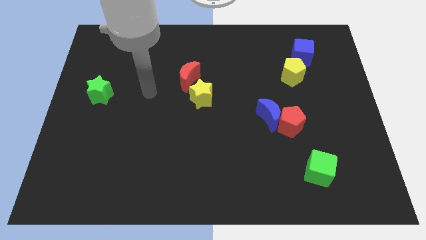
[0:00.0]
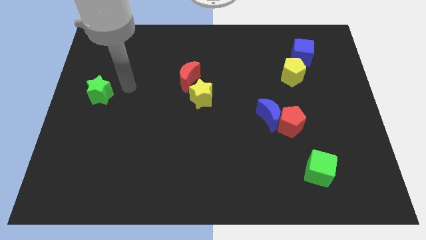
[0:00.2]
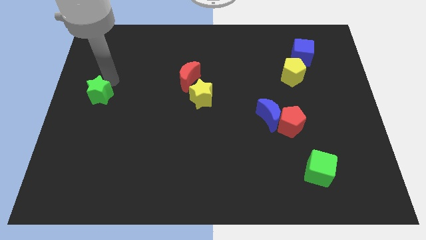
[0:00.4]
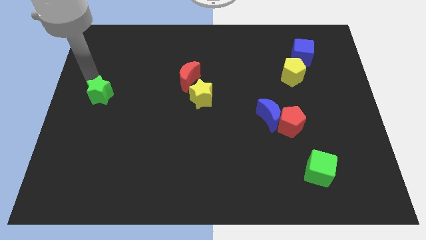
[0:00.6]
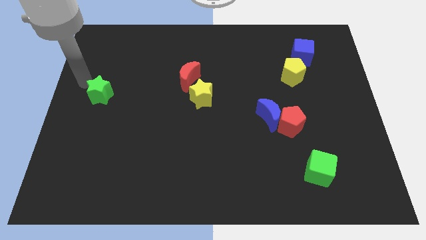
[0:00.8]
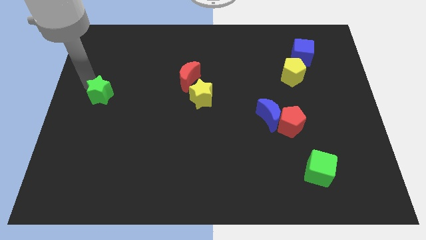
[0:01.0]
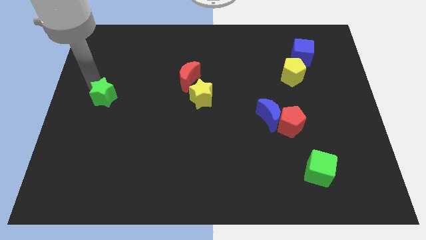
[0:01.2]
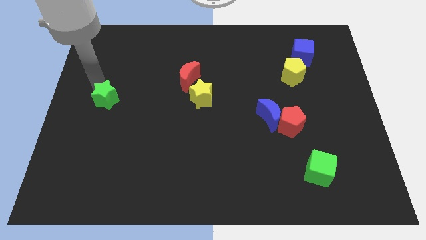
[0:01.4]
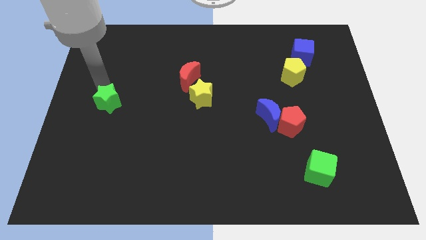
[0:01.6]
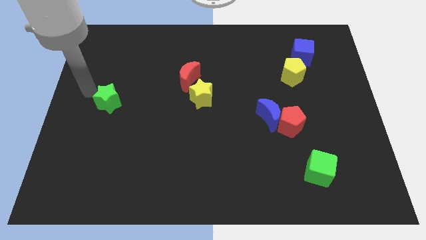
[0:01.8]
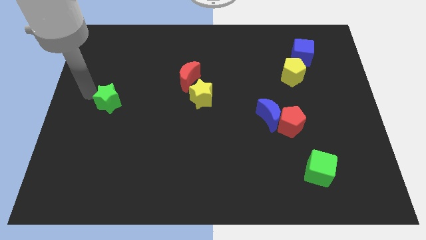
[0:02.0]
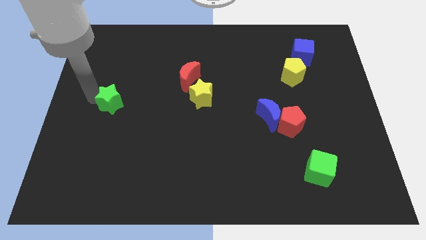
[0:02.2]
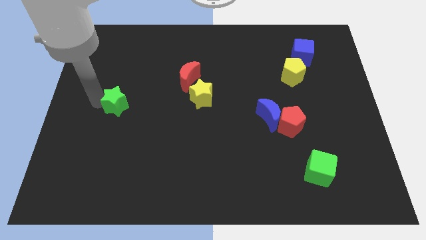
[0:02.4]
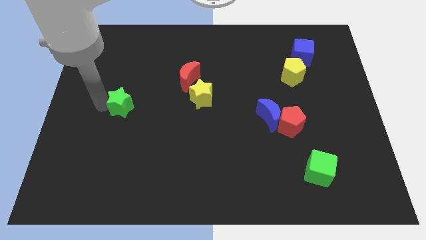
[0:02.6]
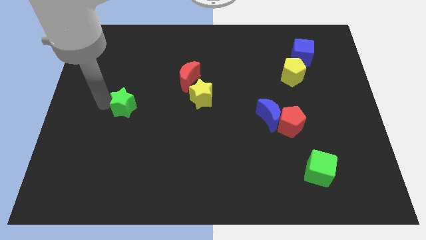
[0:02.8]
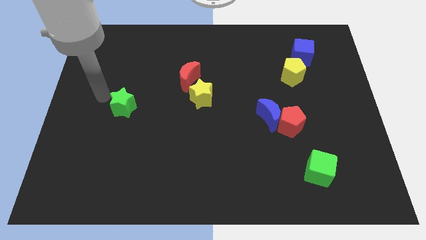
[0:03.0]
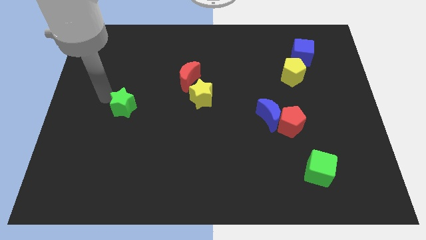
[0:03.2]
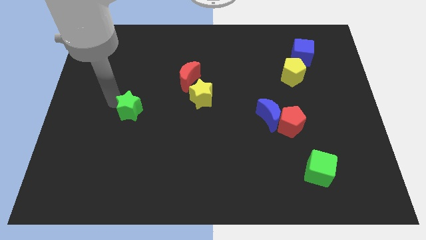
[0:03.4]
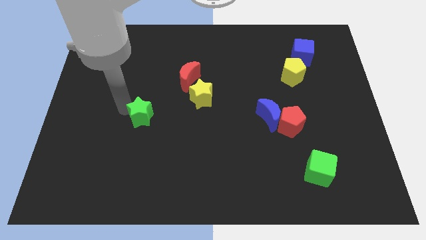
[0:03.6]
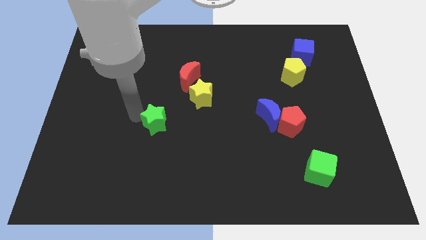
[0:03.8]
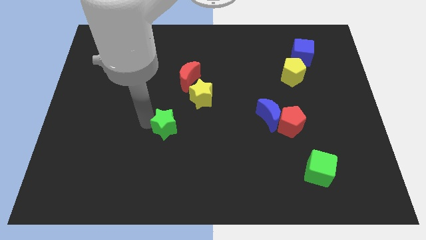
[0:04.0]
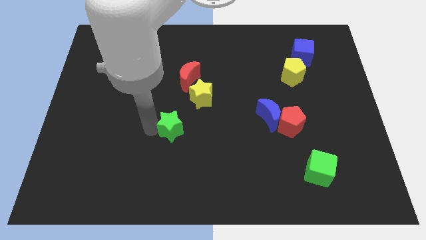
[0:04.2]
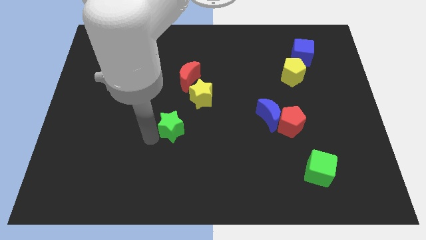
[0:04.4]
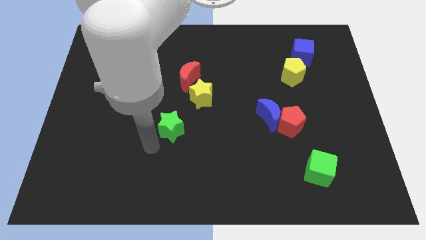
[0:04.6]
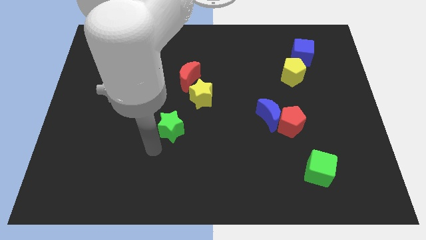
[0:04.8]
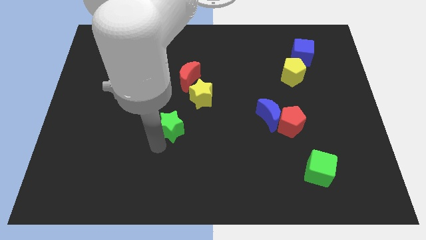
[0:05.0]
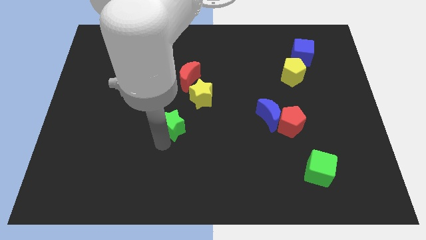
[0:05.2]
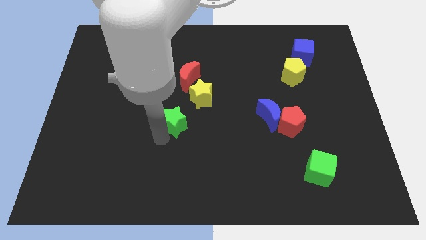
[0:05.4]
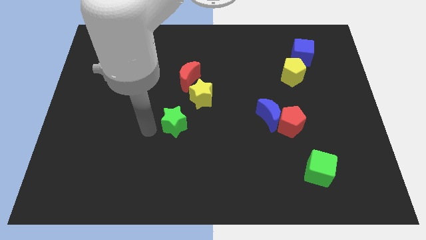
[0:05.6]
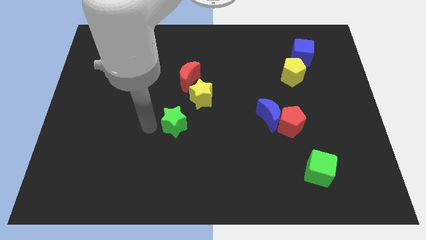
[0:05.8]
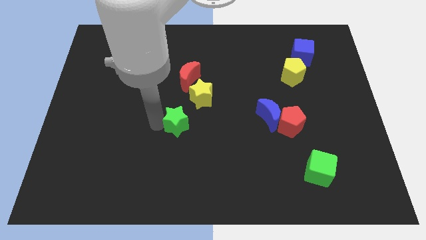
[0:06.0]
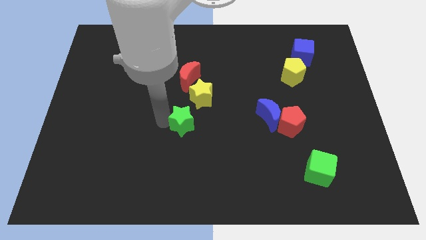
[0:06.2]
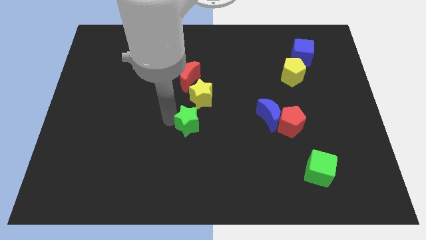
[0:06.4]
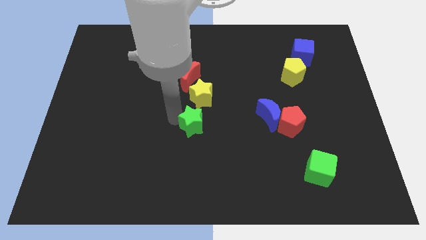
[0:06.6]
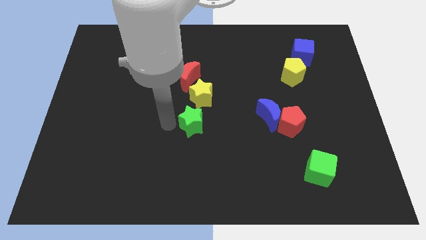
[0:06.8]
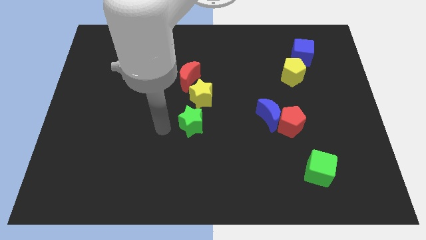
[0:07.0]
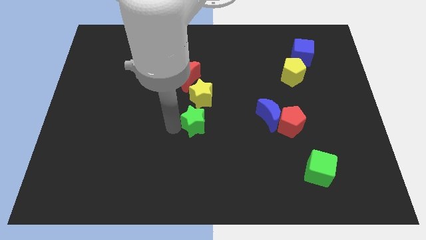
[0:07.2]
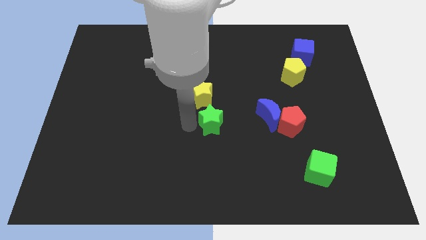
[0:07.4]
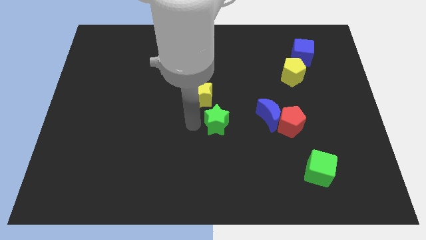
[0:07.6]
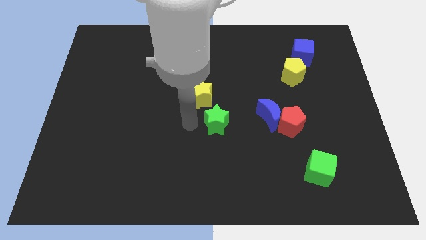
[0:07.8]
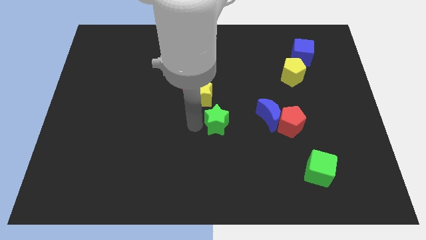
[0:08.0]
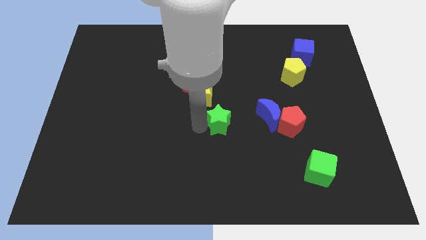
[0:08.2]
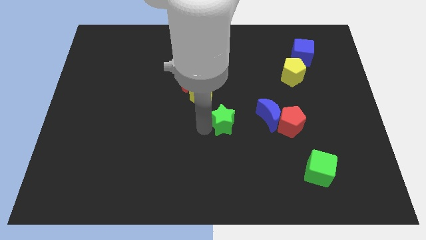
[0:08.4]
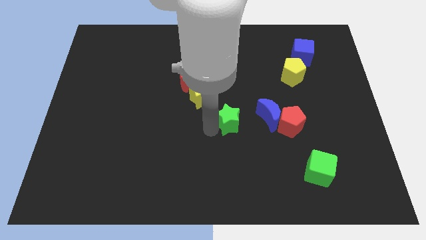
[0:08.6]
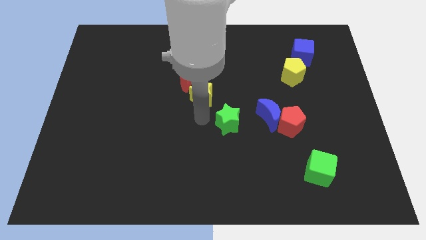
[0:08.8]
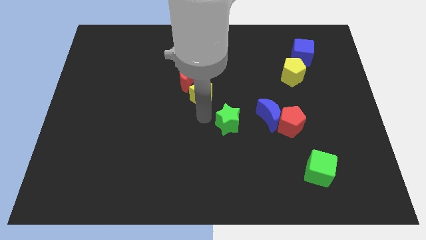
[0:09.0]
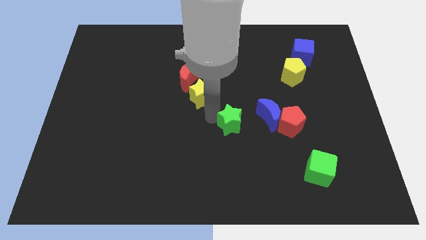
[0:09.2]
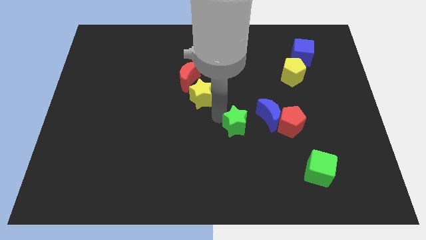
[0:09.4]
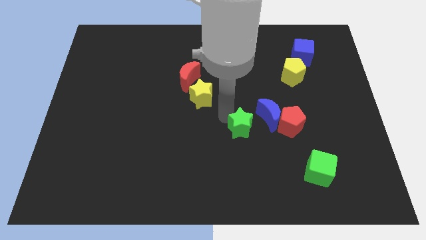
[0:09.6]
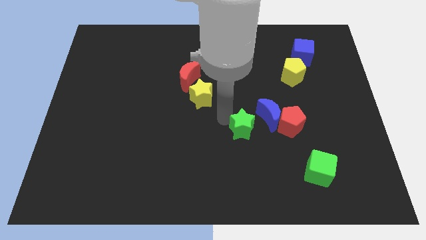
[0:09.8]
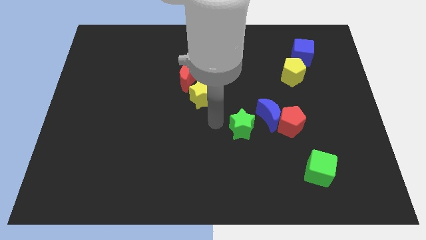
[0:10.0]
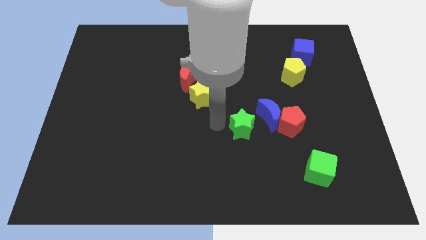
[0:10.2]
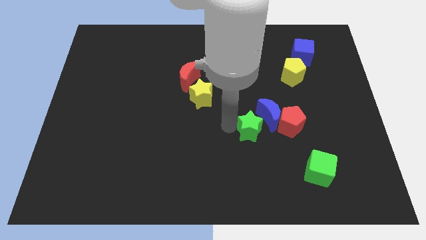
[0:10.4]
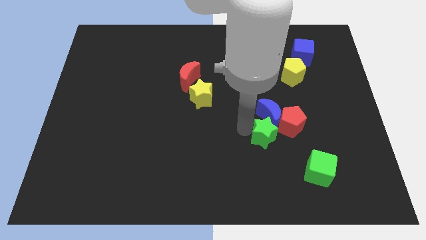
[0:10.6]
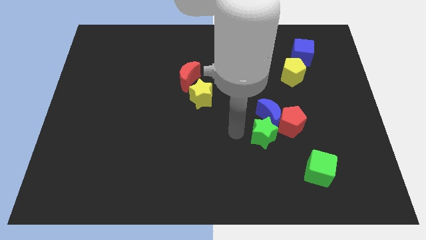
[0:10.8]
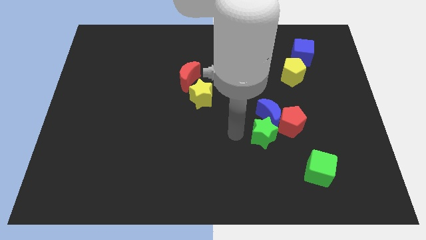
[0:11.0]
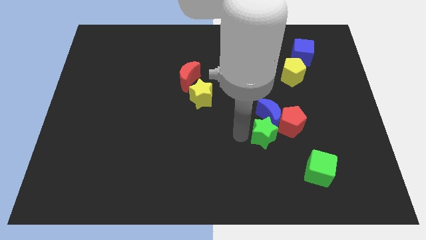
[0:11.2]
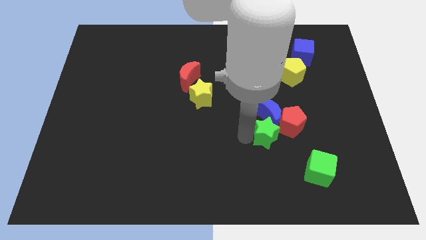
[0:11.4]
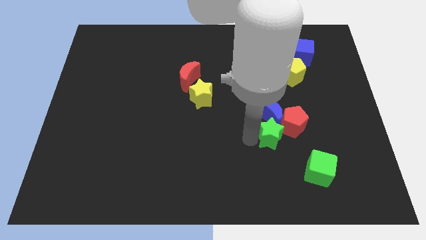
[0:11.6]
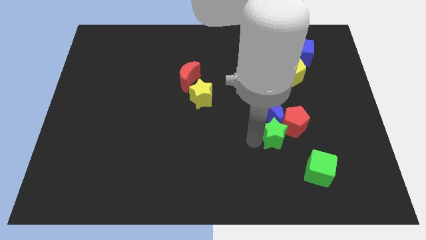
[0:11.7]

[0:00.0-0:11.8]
put the green star to the red pentagon

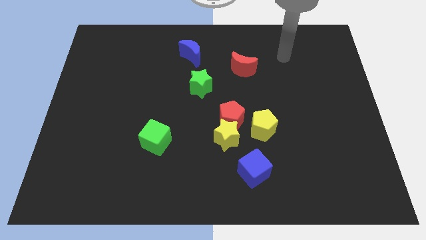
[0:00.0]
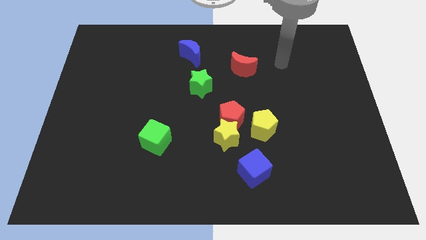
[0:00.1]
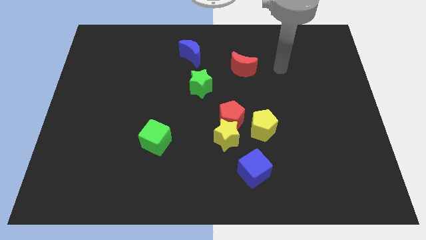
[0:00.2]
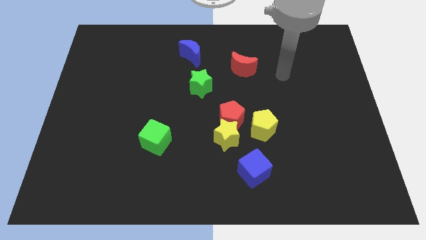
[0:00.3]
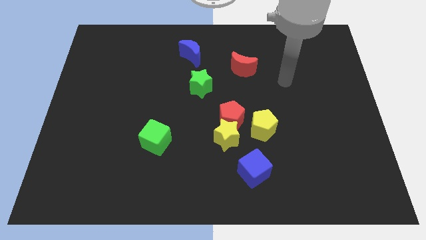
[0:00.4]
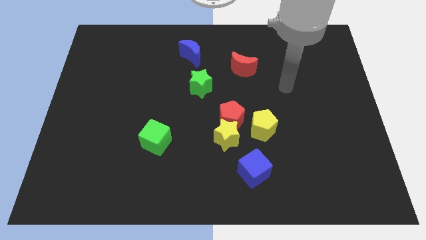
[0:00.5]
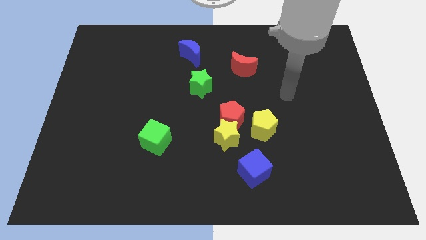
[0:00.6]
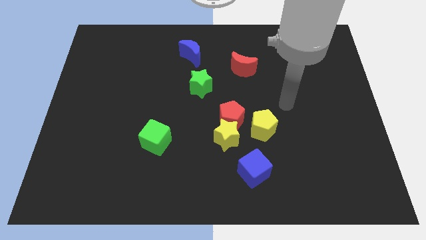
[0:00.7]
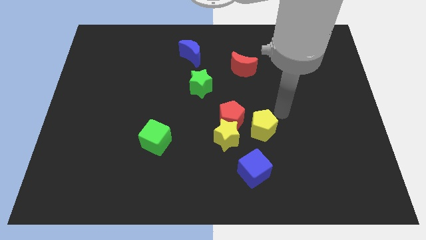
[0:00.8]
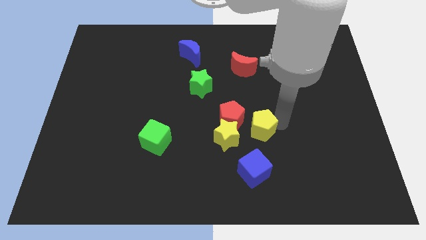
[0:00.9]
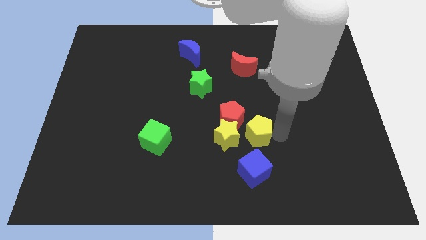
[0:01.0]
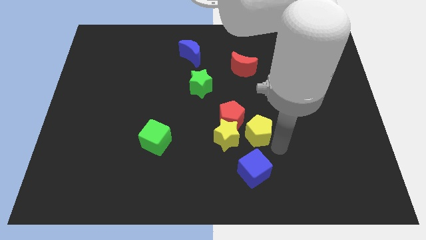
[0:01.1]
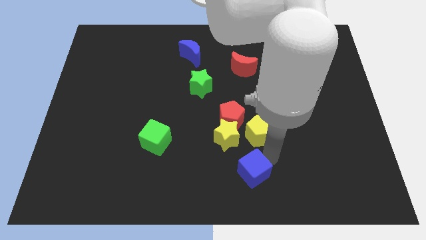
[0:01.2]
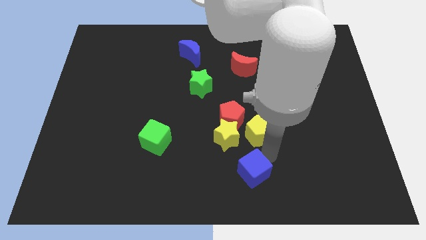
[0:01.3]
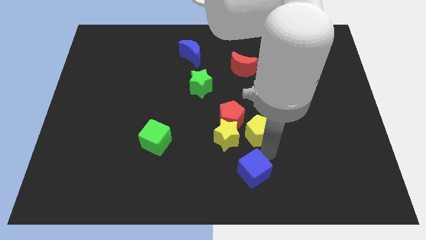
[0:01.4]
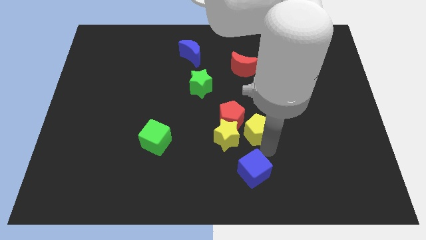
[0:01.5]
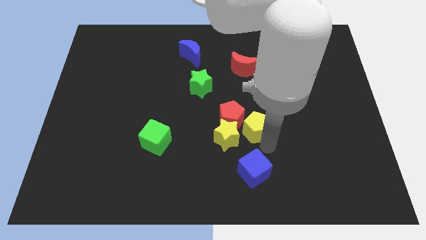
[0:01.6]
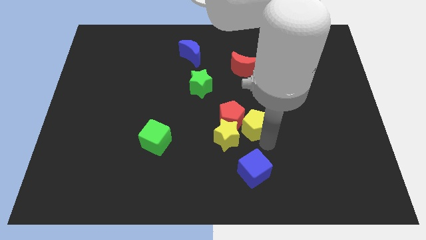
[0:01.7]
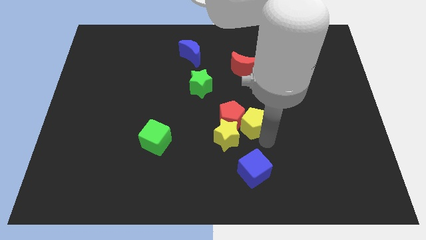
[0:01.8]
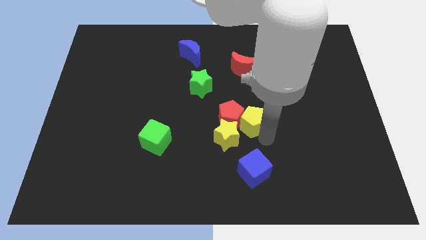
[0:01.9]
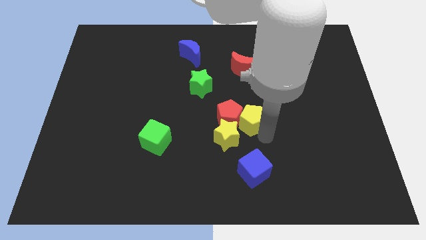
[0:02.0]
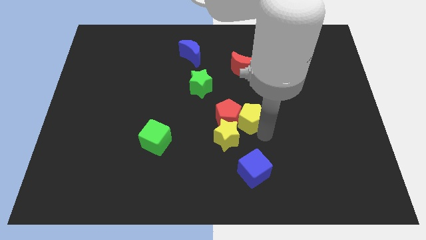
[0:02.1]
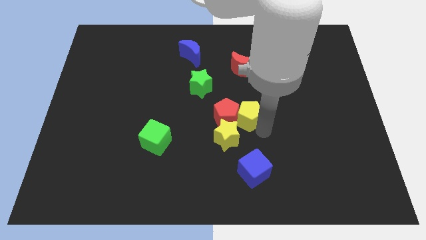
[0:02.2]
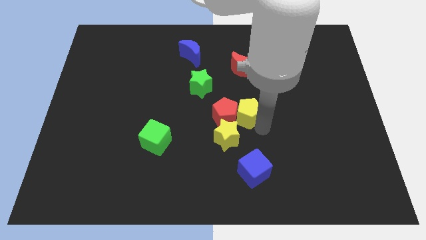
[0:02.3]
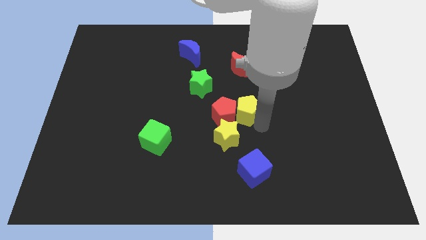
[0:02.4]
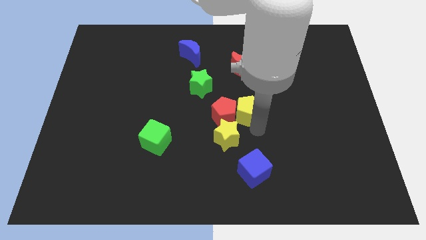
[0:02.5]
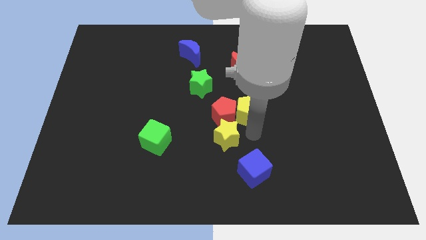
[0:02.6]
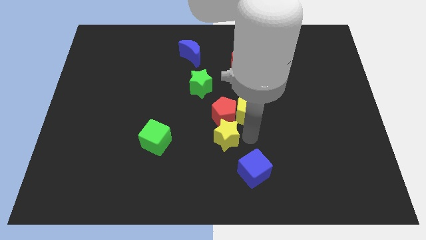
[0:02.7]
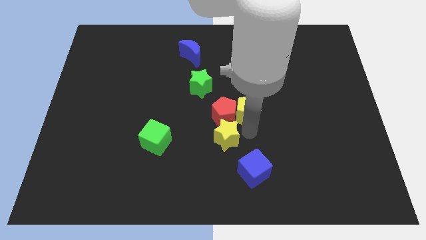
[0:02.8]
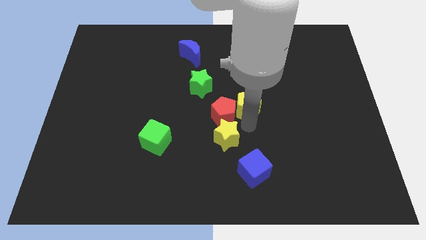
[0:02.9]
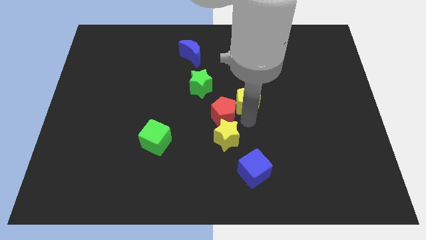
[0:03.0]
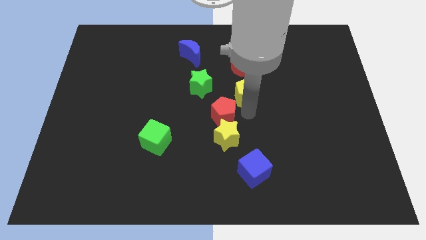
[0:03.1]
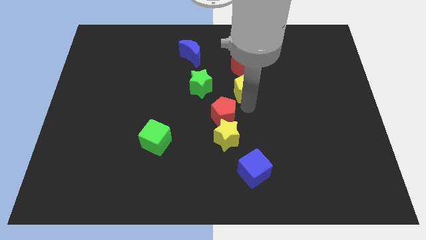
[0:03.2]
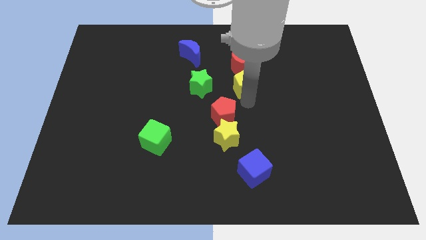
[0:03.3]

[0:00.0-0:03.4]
move the yellow pentagon next to the red moon
